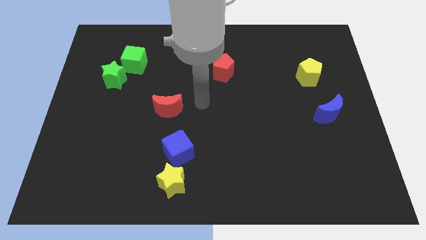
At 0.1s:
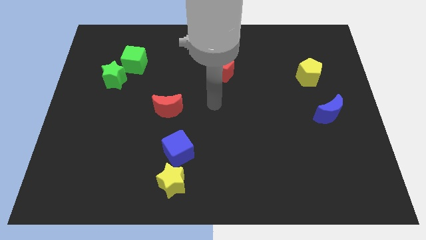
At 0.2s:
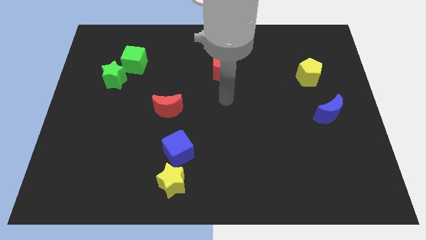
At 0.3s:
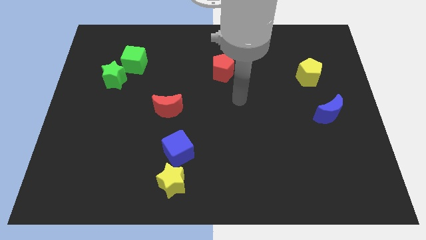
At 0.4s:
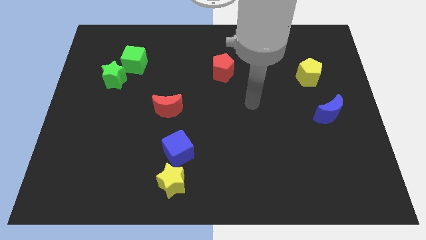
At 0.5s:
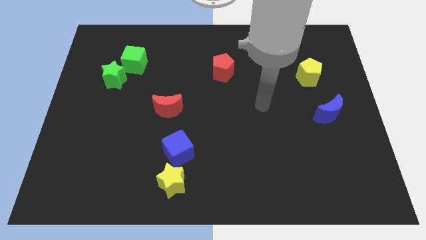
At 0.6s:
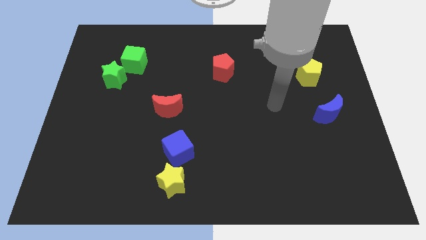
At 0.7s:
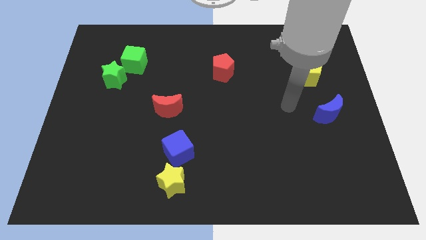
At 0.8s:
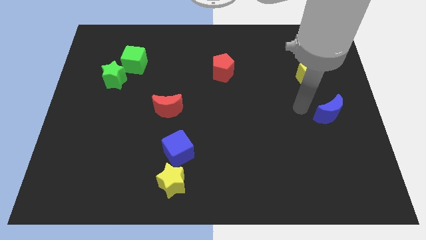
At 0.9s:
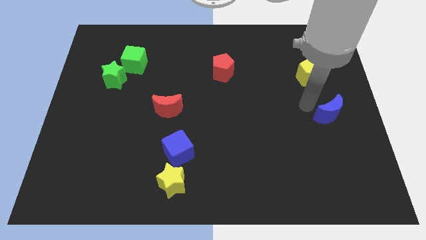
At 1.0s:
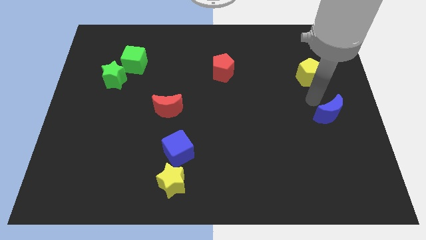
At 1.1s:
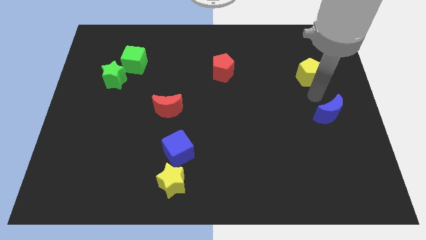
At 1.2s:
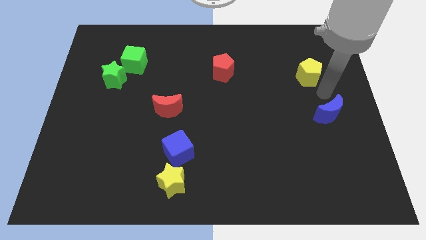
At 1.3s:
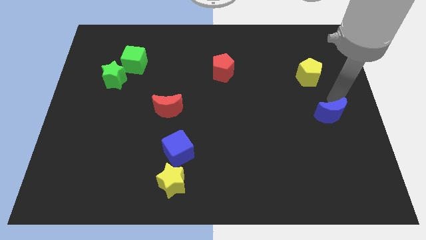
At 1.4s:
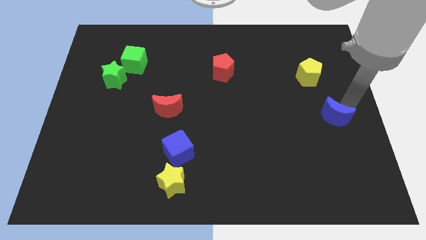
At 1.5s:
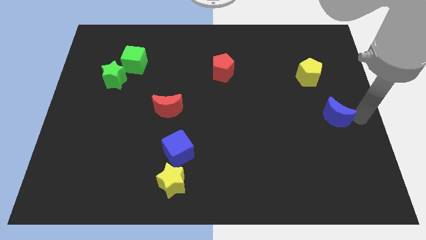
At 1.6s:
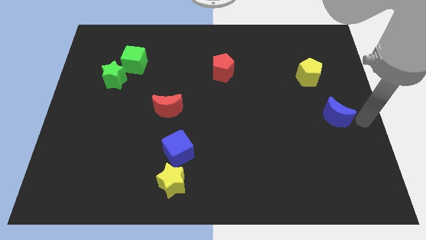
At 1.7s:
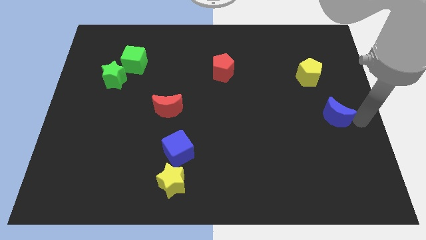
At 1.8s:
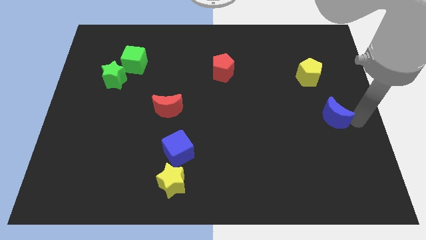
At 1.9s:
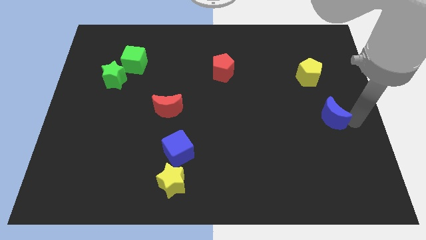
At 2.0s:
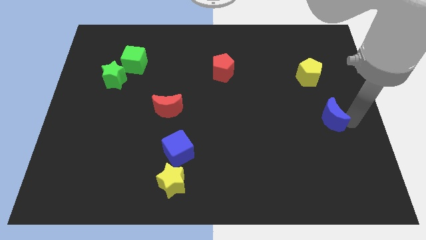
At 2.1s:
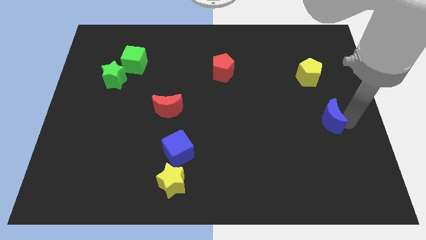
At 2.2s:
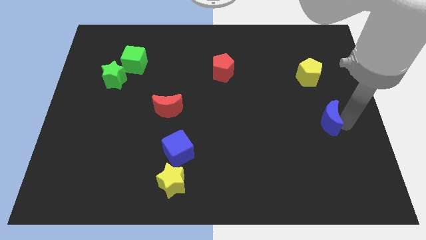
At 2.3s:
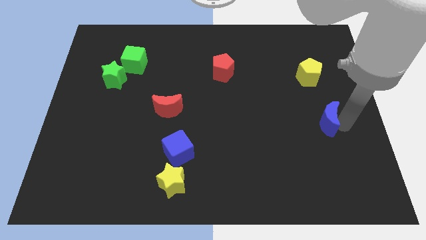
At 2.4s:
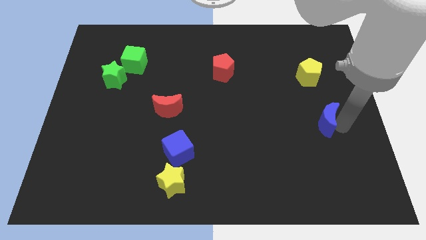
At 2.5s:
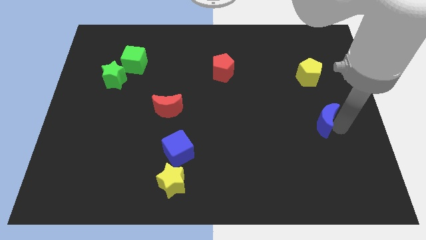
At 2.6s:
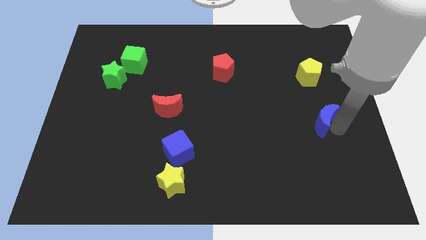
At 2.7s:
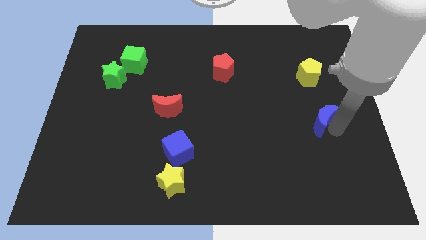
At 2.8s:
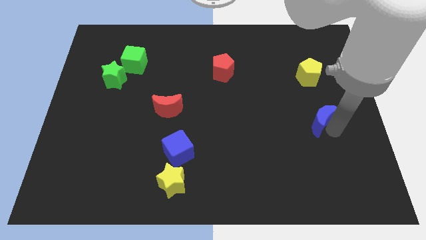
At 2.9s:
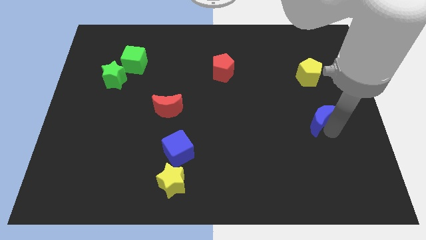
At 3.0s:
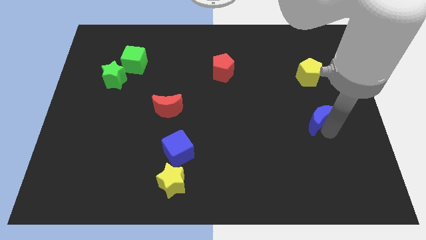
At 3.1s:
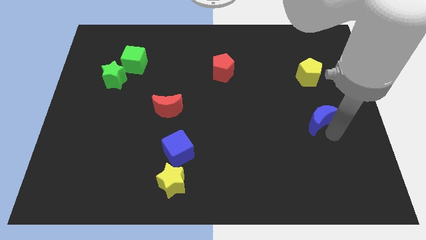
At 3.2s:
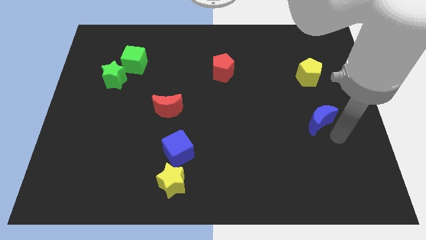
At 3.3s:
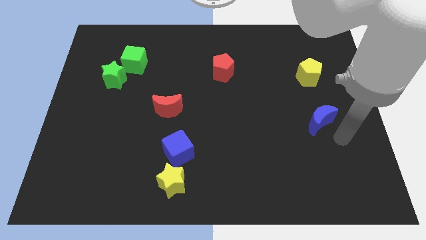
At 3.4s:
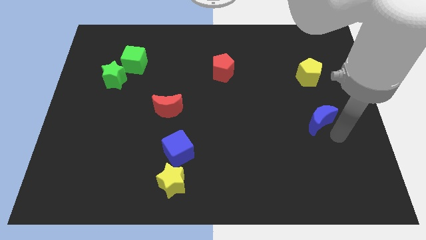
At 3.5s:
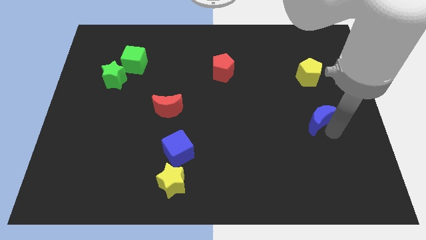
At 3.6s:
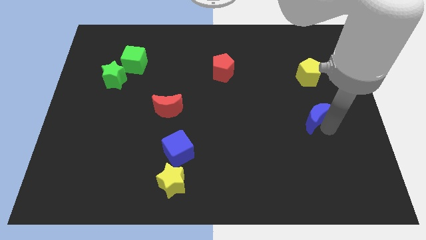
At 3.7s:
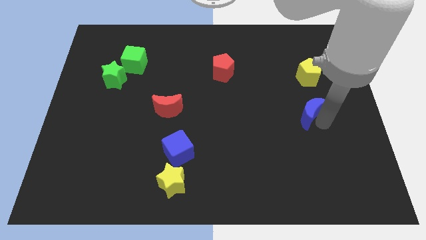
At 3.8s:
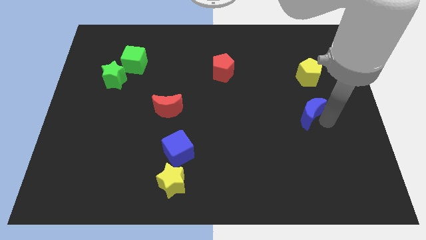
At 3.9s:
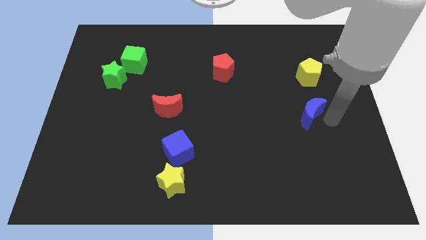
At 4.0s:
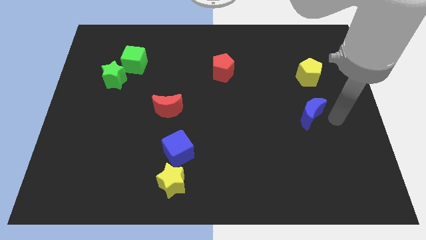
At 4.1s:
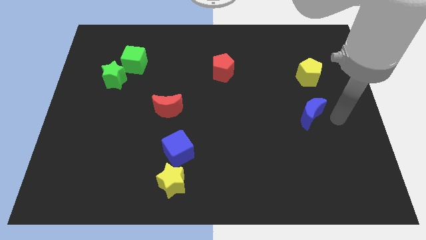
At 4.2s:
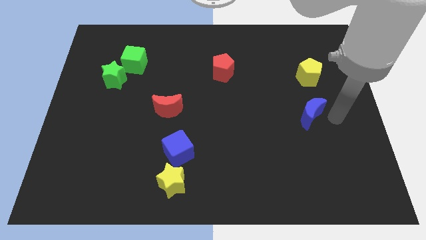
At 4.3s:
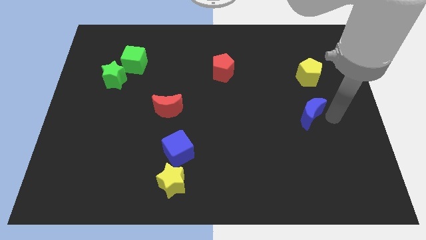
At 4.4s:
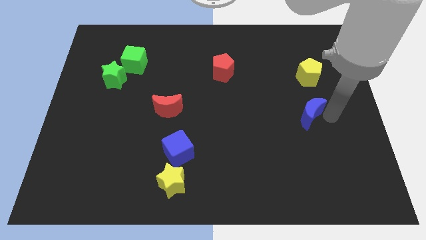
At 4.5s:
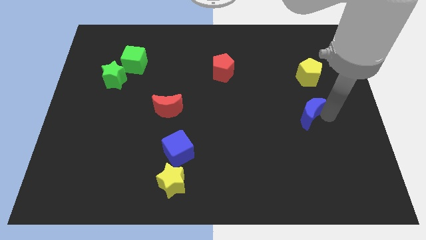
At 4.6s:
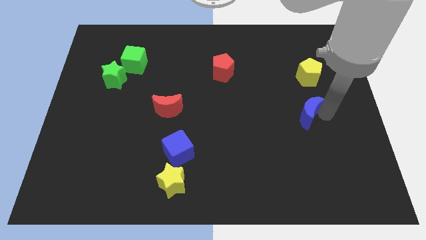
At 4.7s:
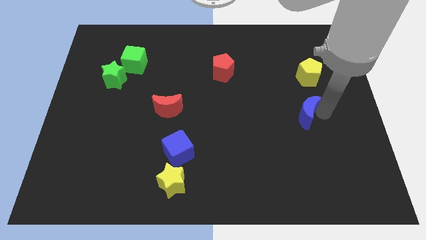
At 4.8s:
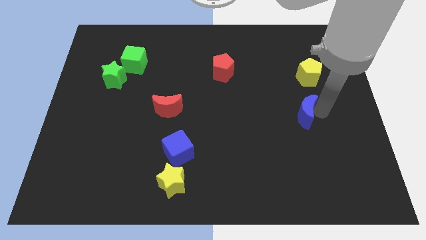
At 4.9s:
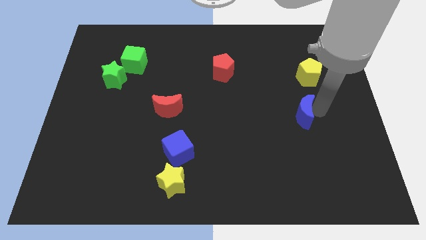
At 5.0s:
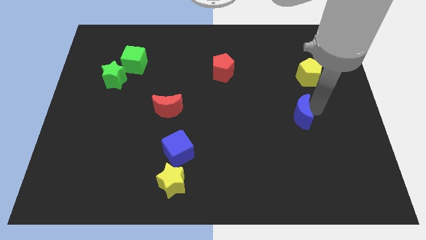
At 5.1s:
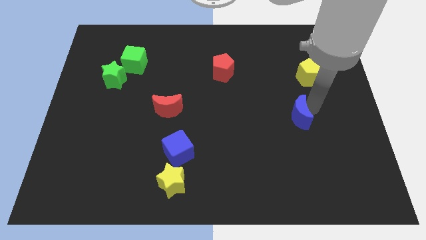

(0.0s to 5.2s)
move the blue moon to the left somewhat

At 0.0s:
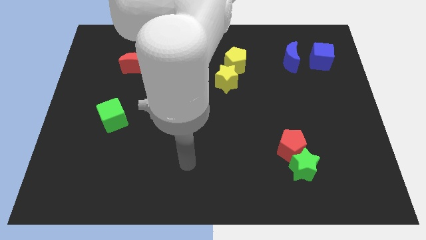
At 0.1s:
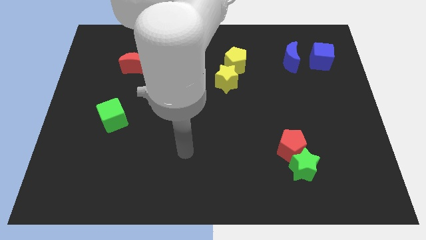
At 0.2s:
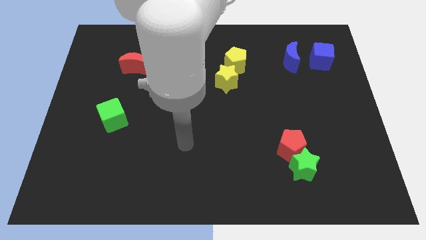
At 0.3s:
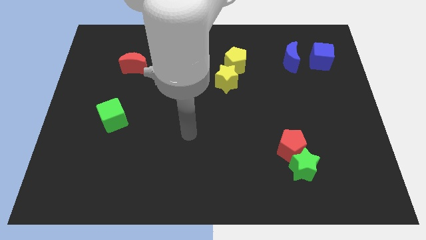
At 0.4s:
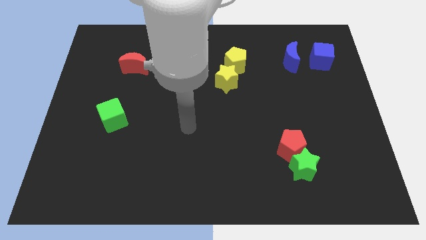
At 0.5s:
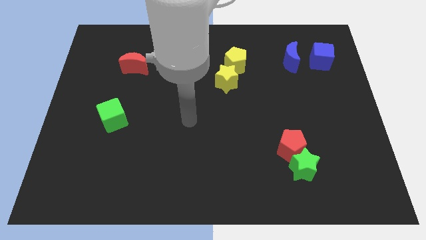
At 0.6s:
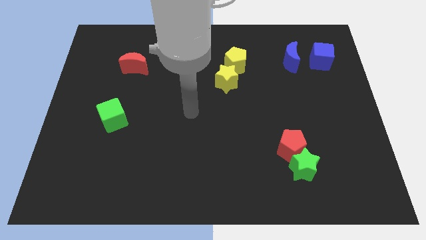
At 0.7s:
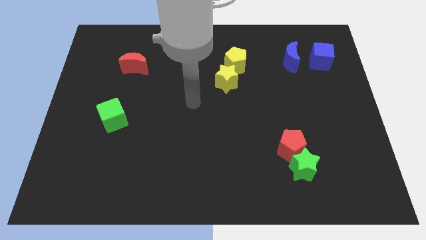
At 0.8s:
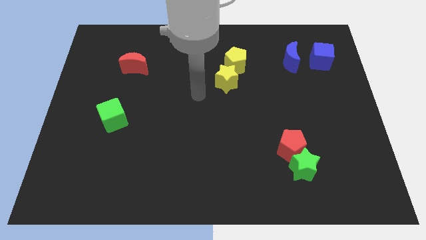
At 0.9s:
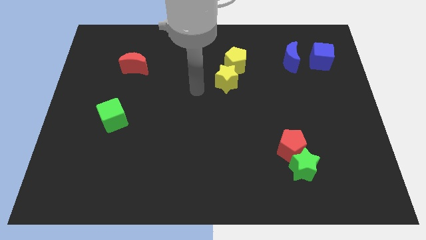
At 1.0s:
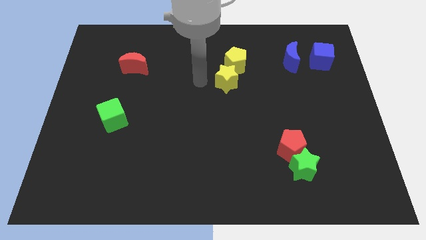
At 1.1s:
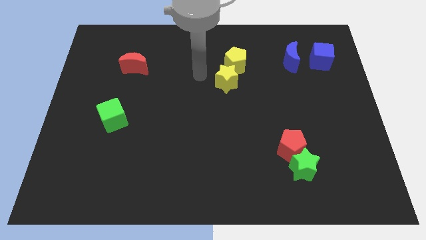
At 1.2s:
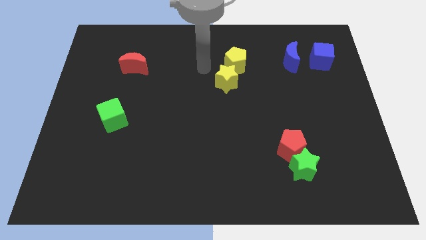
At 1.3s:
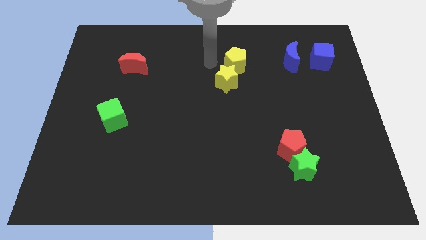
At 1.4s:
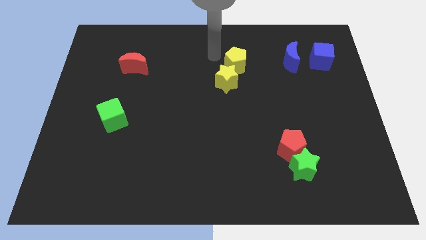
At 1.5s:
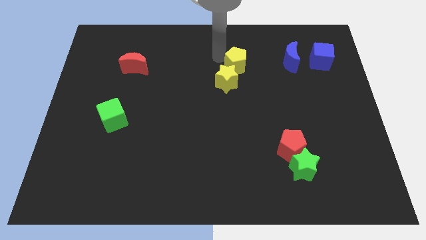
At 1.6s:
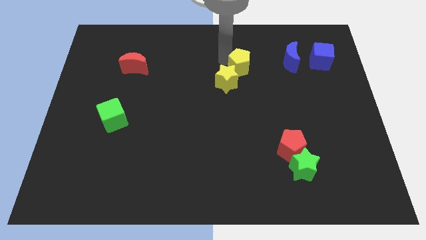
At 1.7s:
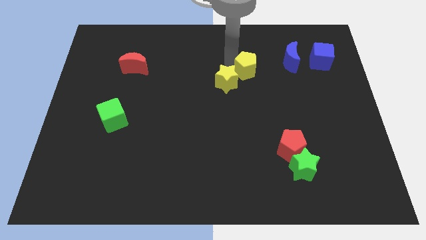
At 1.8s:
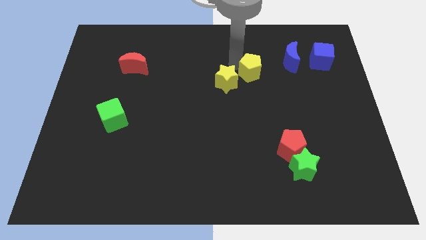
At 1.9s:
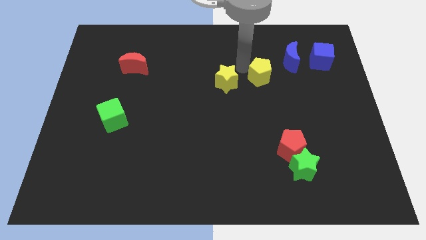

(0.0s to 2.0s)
move the yellow pentagon down and to the right a little

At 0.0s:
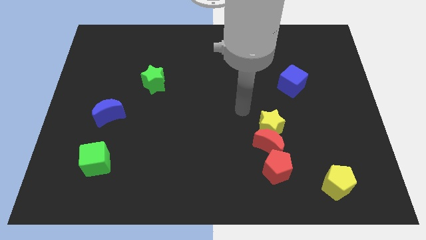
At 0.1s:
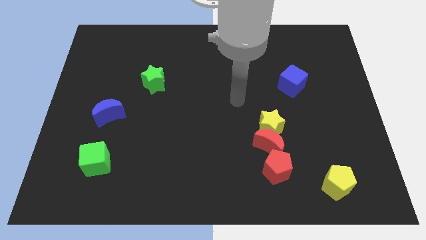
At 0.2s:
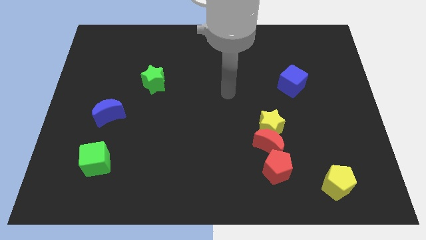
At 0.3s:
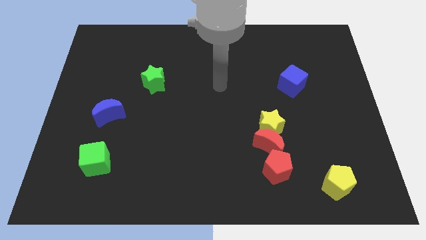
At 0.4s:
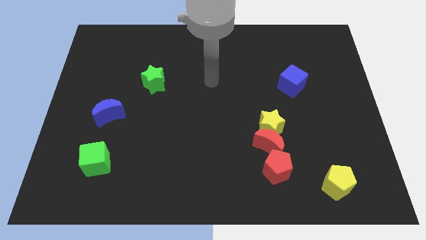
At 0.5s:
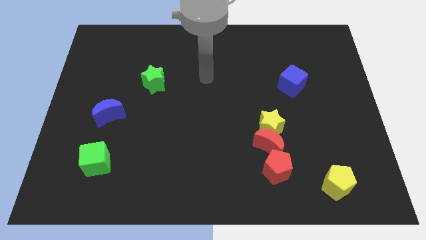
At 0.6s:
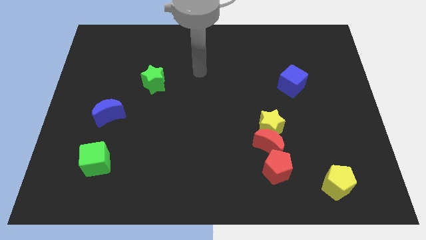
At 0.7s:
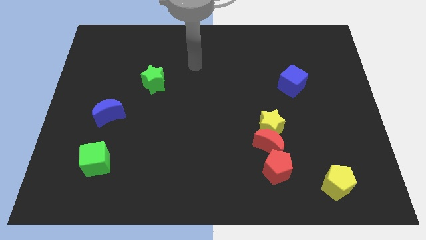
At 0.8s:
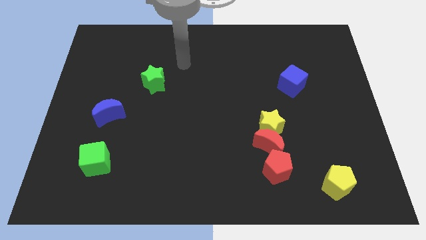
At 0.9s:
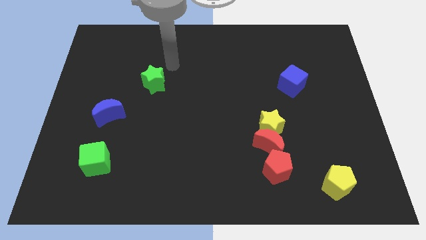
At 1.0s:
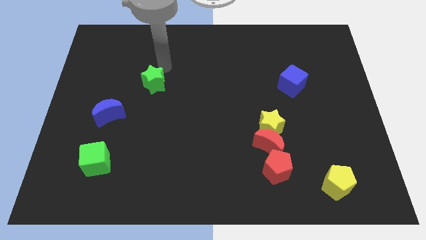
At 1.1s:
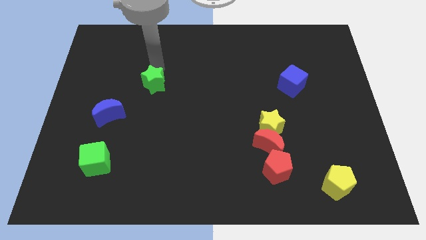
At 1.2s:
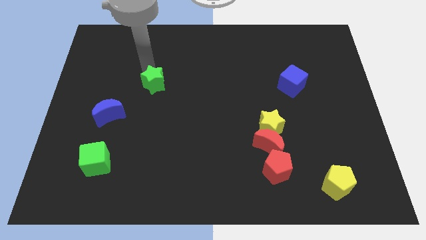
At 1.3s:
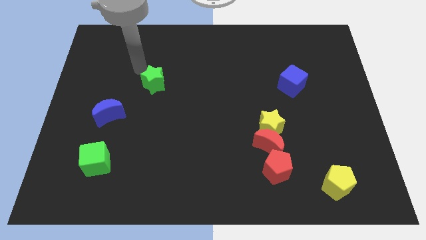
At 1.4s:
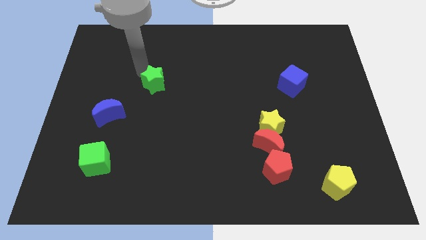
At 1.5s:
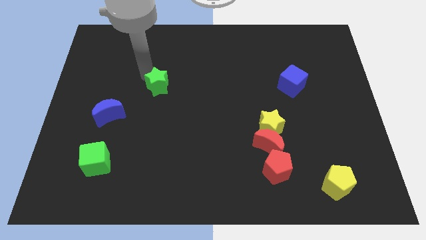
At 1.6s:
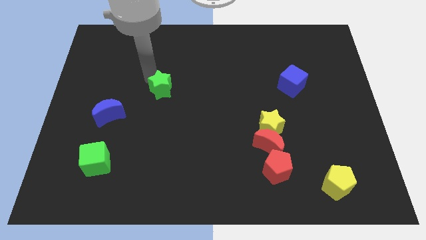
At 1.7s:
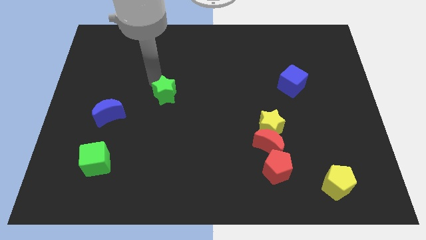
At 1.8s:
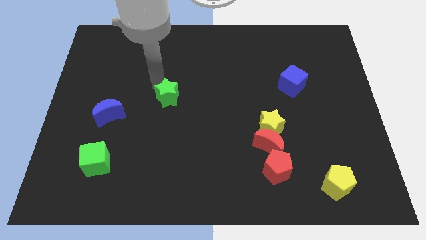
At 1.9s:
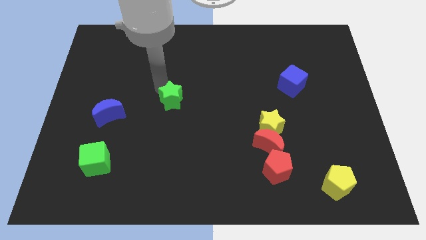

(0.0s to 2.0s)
push the green star down and to the right diagonally slightly
